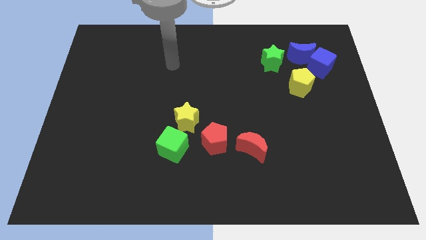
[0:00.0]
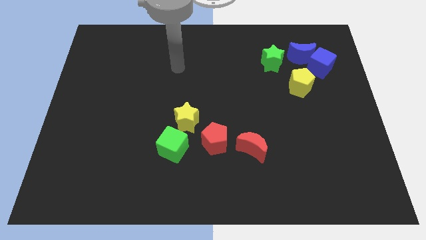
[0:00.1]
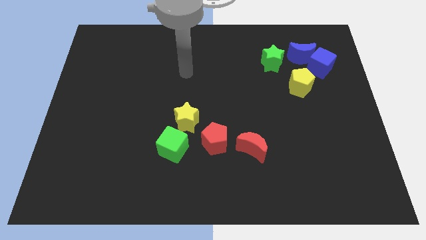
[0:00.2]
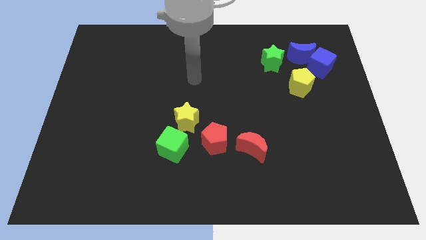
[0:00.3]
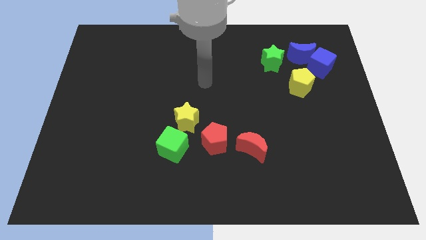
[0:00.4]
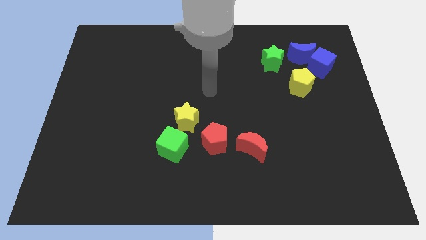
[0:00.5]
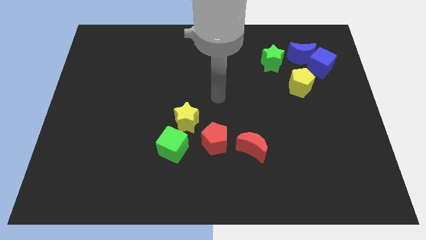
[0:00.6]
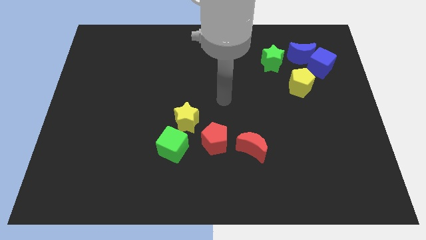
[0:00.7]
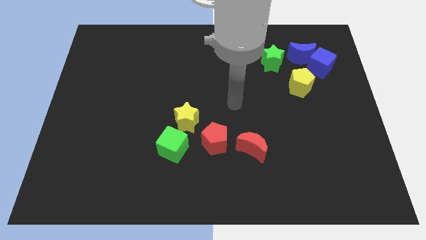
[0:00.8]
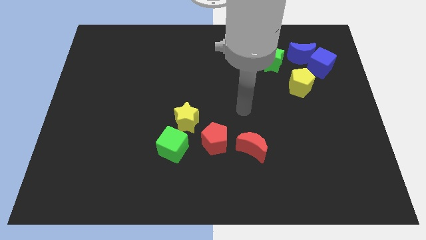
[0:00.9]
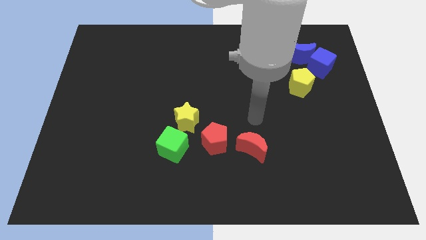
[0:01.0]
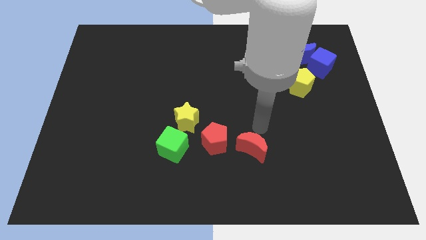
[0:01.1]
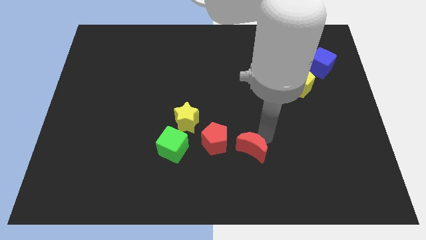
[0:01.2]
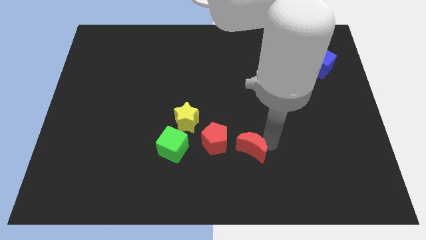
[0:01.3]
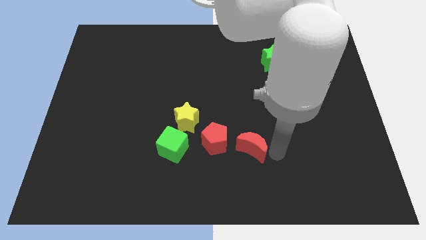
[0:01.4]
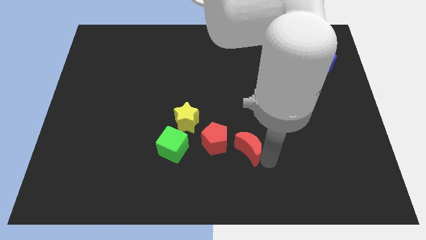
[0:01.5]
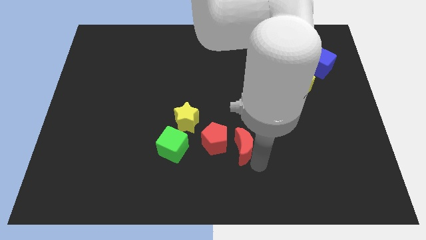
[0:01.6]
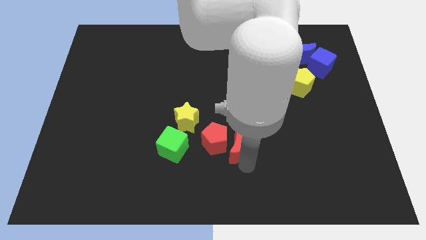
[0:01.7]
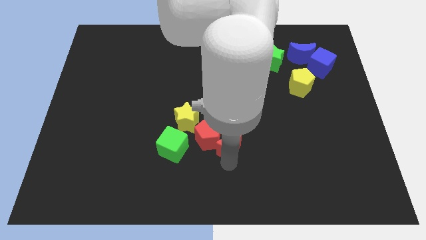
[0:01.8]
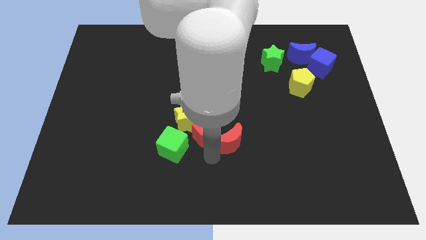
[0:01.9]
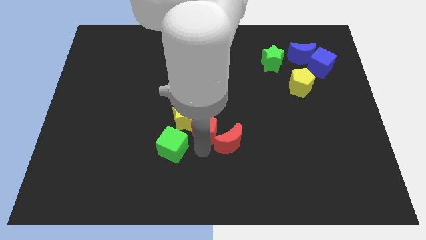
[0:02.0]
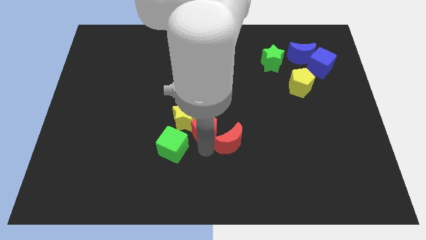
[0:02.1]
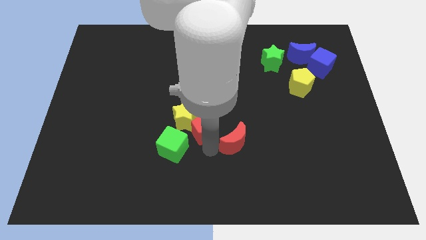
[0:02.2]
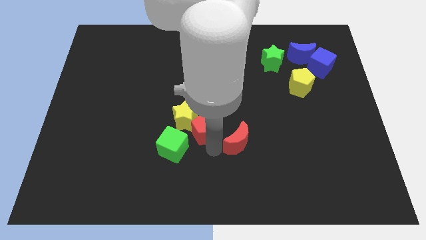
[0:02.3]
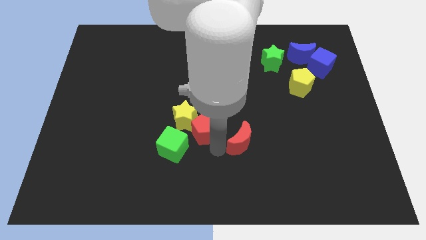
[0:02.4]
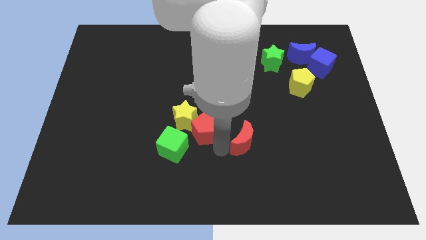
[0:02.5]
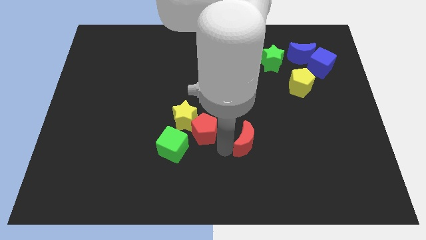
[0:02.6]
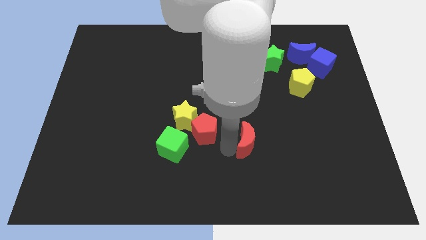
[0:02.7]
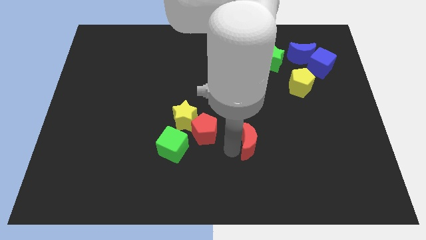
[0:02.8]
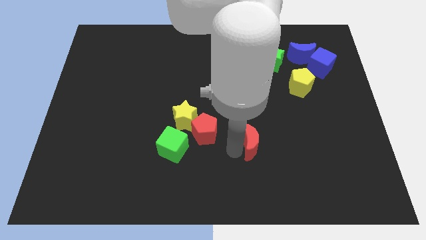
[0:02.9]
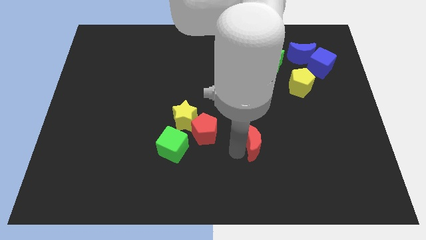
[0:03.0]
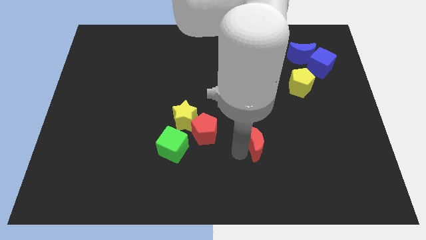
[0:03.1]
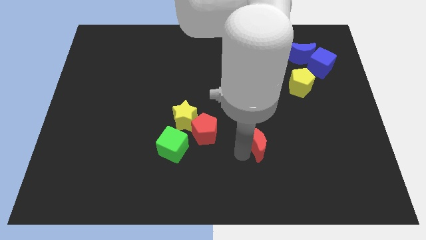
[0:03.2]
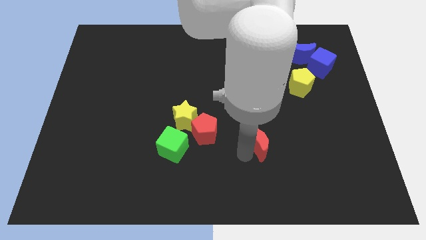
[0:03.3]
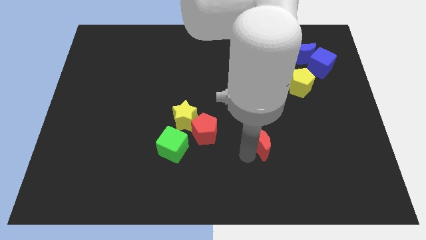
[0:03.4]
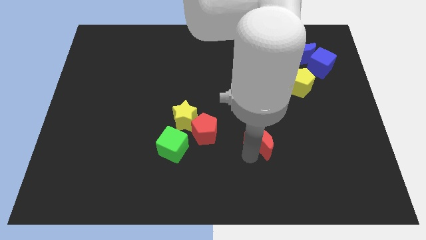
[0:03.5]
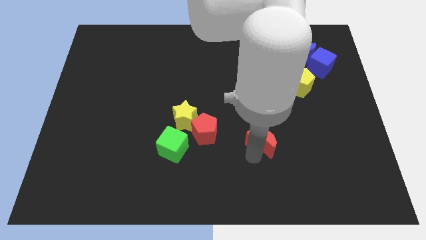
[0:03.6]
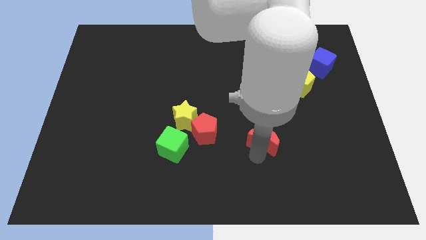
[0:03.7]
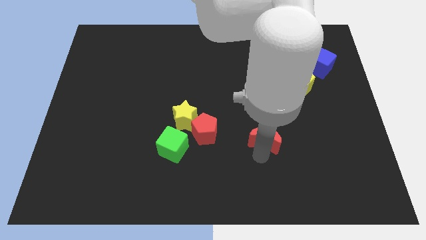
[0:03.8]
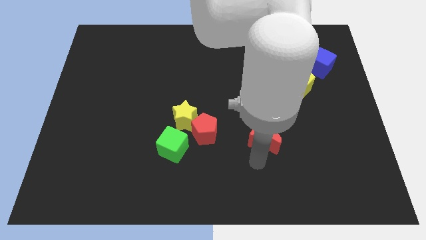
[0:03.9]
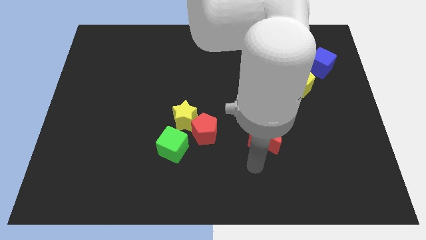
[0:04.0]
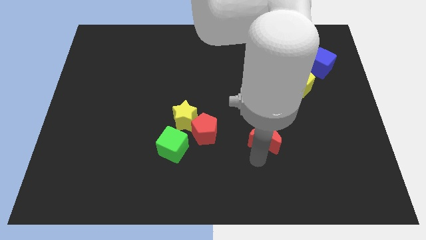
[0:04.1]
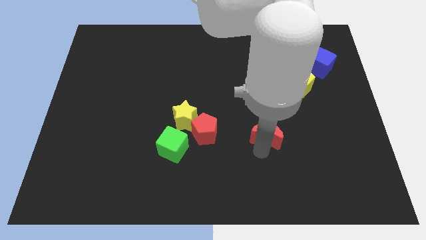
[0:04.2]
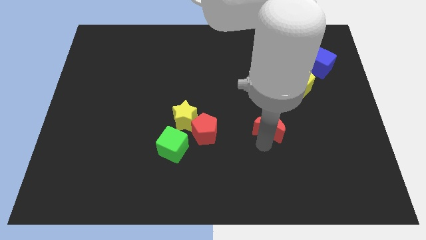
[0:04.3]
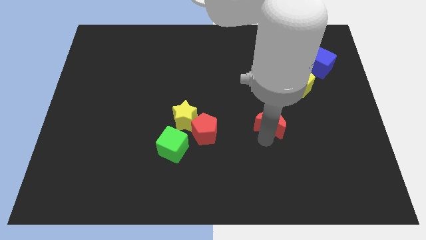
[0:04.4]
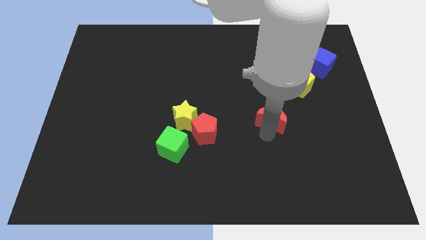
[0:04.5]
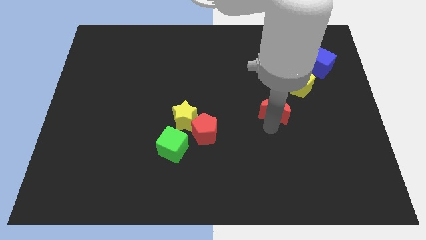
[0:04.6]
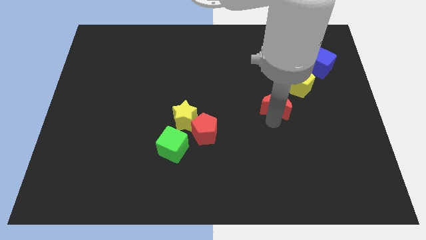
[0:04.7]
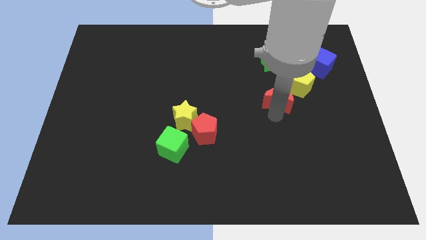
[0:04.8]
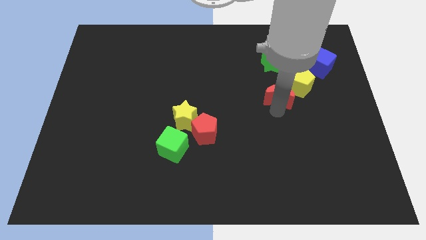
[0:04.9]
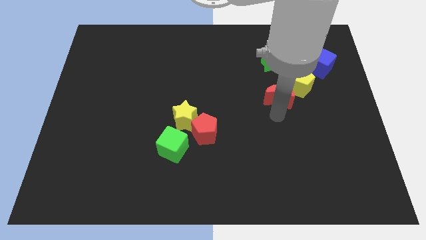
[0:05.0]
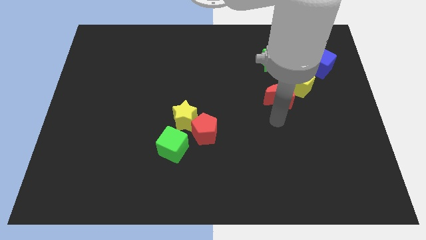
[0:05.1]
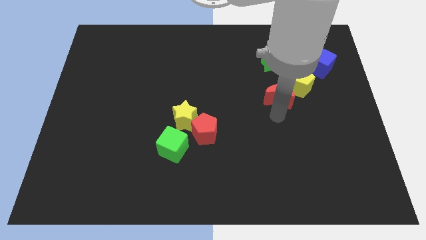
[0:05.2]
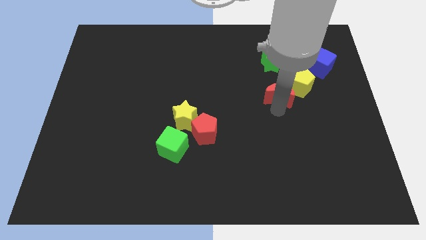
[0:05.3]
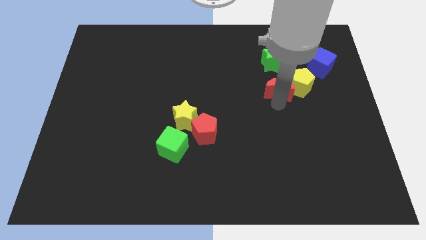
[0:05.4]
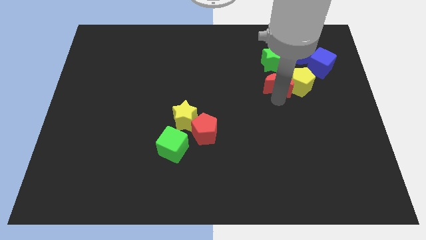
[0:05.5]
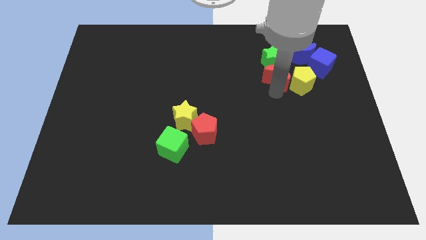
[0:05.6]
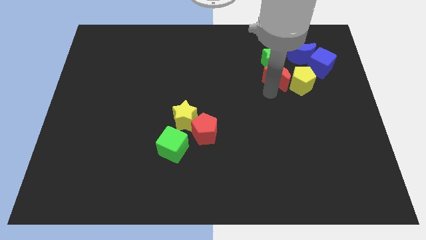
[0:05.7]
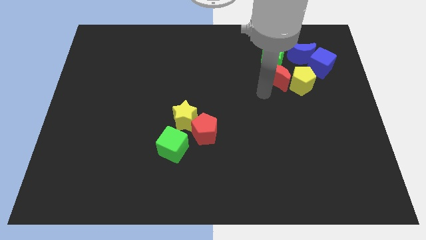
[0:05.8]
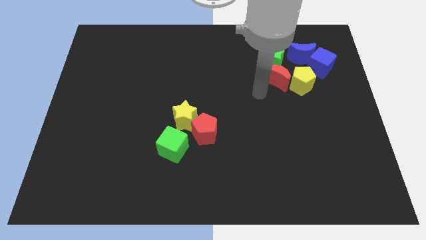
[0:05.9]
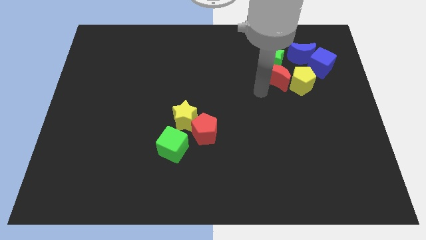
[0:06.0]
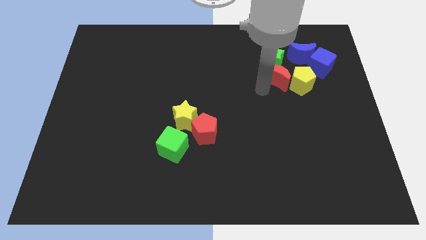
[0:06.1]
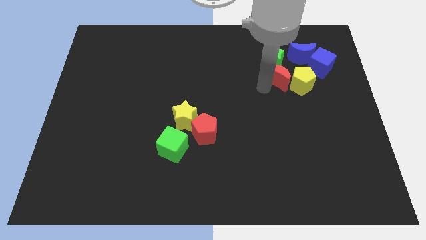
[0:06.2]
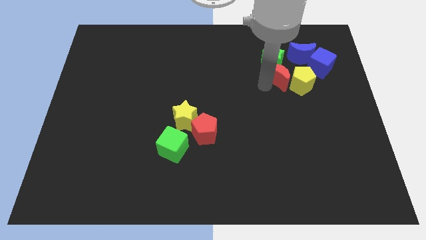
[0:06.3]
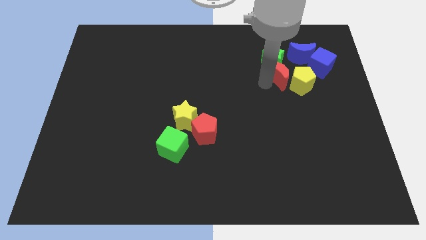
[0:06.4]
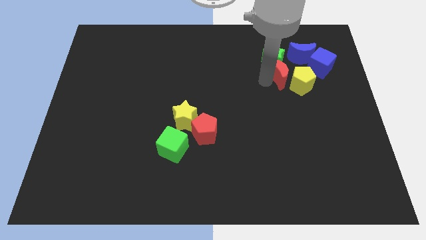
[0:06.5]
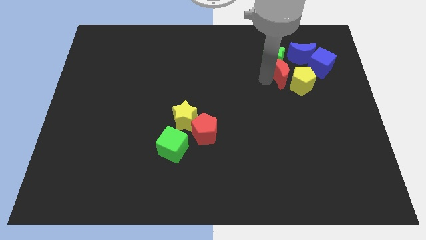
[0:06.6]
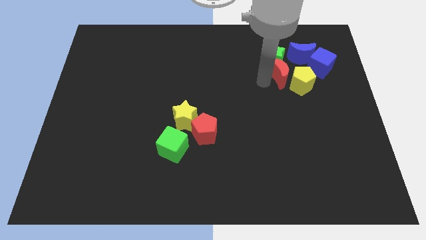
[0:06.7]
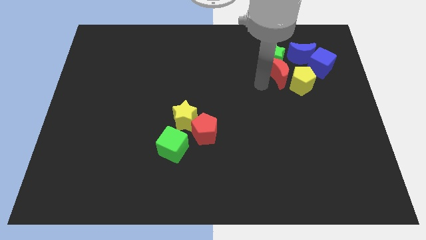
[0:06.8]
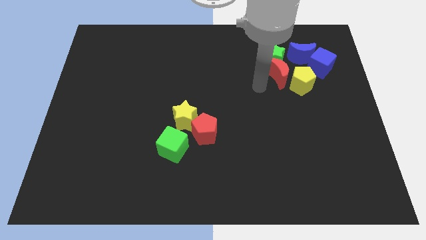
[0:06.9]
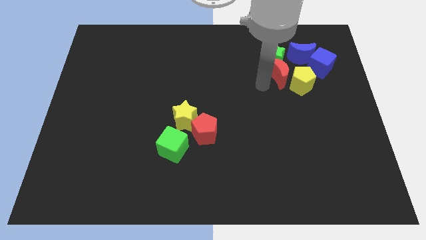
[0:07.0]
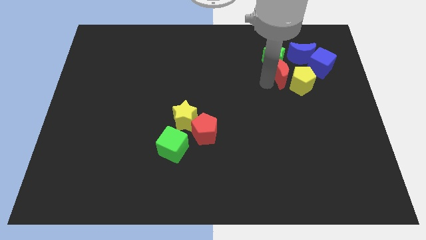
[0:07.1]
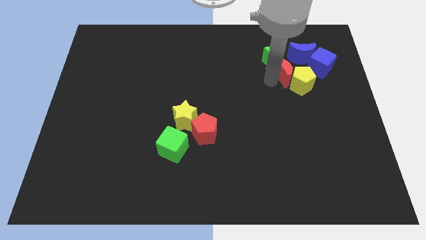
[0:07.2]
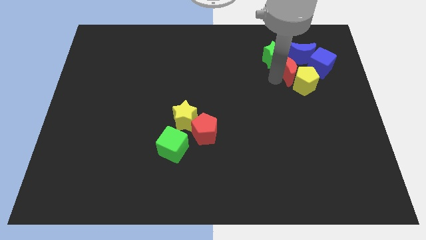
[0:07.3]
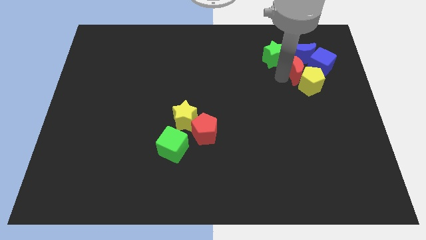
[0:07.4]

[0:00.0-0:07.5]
push the red moon next to the blue moon
